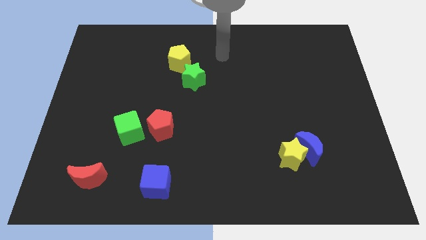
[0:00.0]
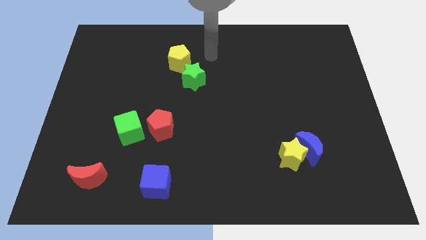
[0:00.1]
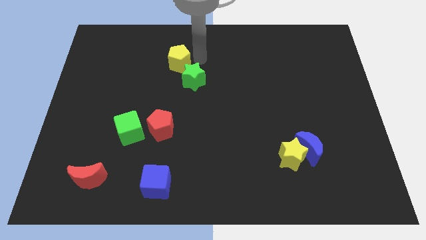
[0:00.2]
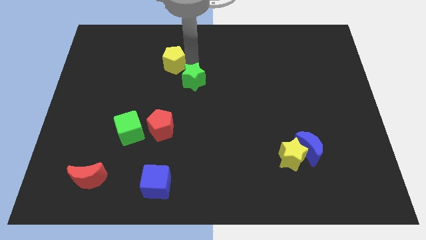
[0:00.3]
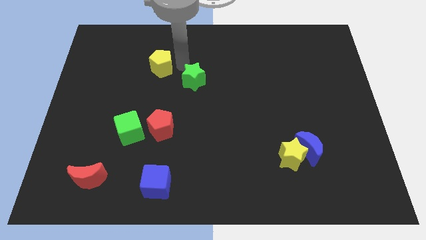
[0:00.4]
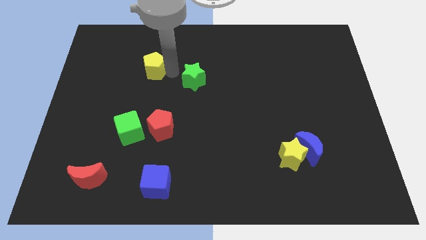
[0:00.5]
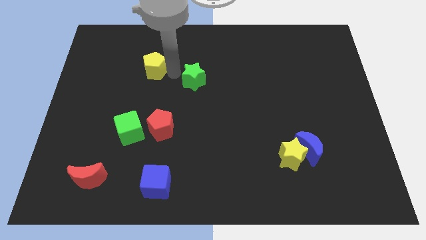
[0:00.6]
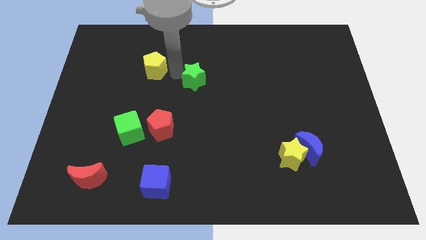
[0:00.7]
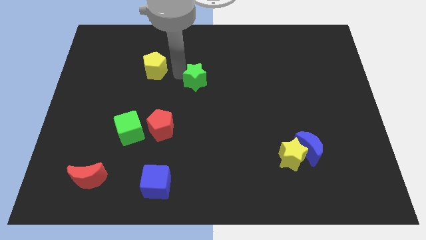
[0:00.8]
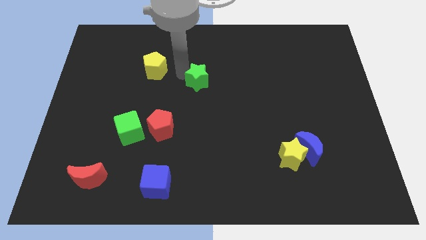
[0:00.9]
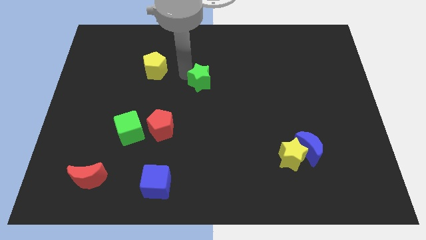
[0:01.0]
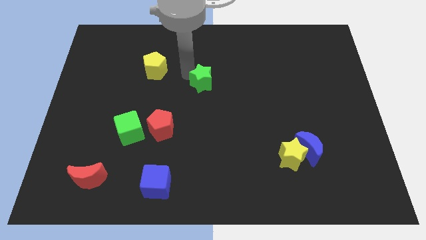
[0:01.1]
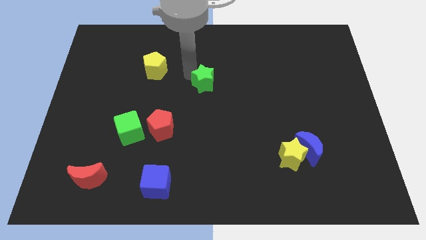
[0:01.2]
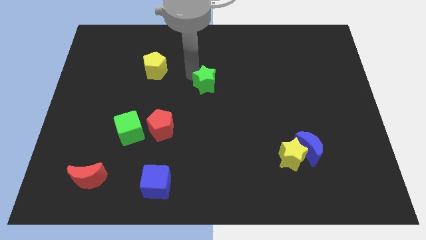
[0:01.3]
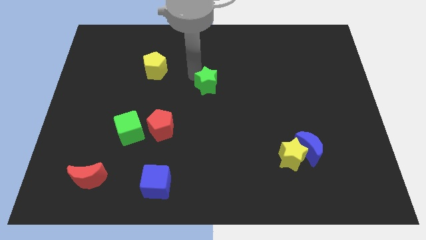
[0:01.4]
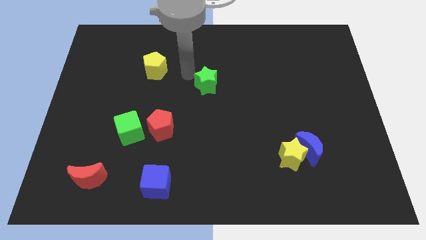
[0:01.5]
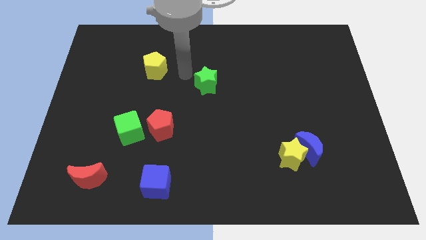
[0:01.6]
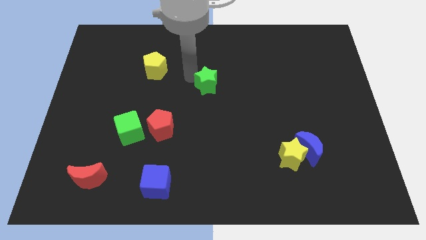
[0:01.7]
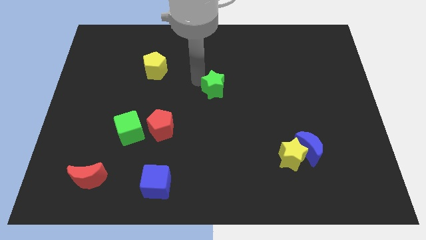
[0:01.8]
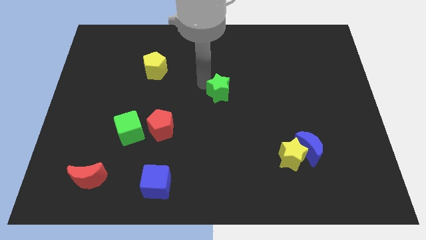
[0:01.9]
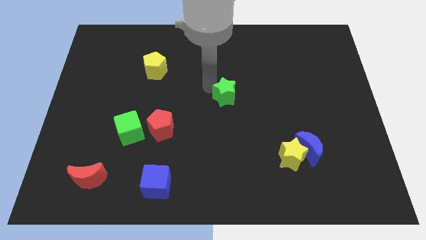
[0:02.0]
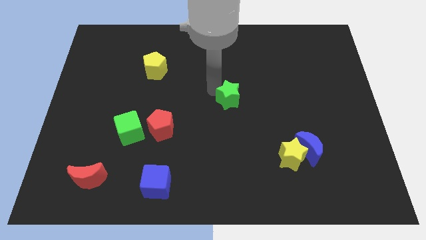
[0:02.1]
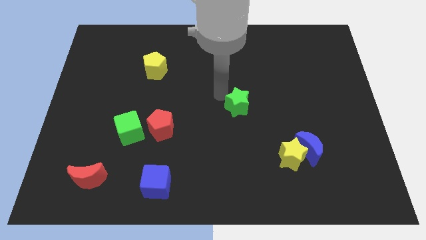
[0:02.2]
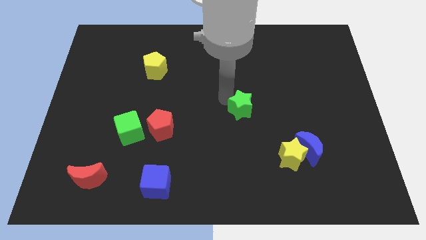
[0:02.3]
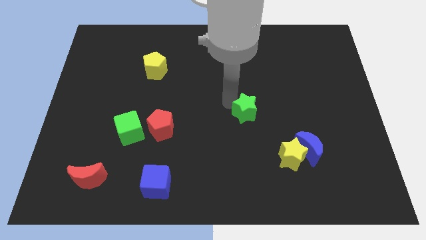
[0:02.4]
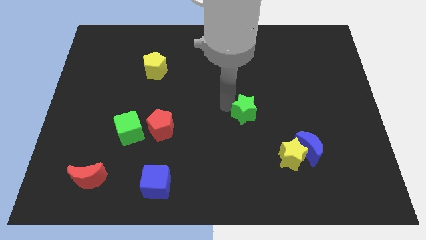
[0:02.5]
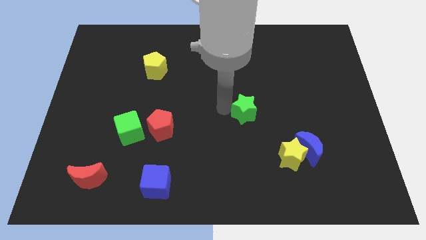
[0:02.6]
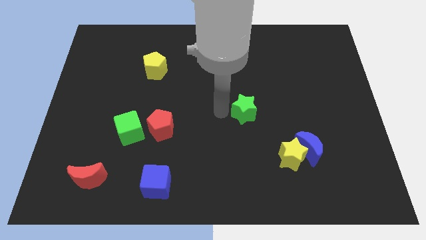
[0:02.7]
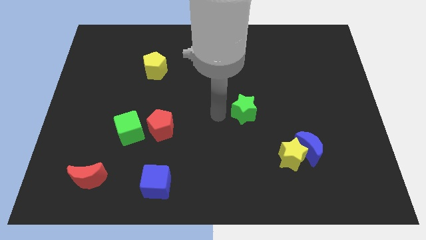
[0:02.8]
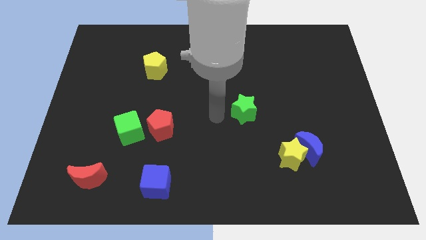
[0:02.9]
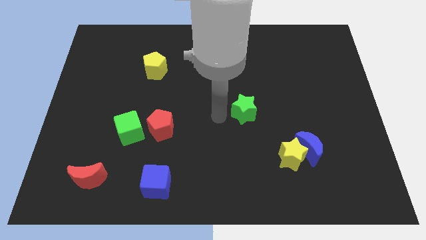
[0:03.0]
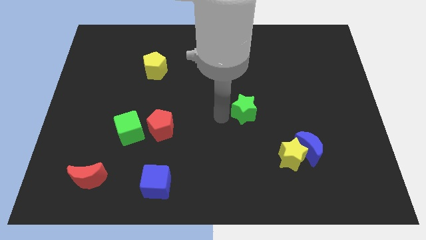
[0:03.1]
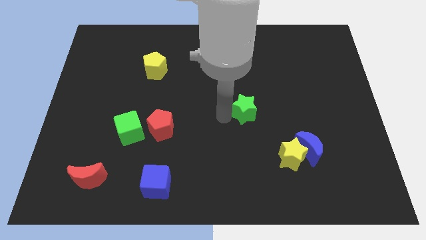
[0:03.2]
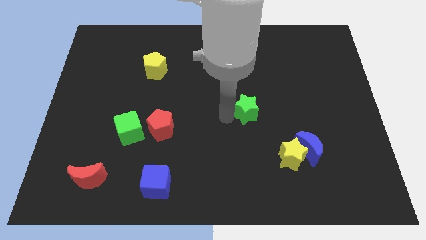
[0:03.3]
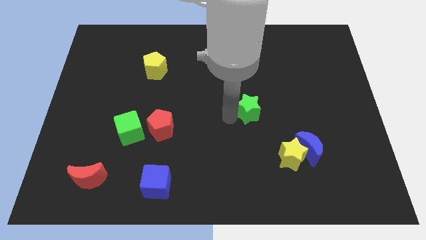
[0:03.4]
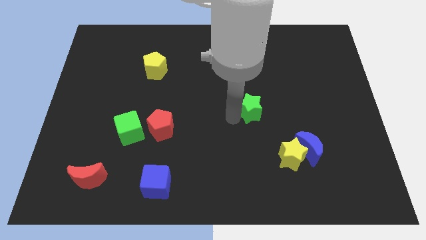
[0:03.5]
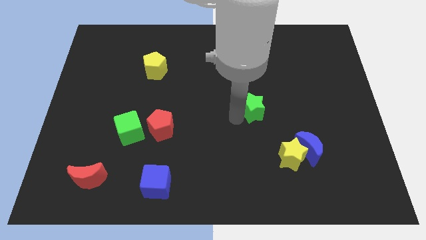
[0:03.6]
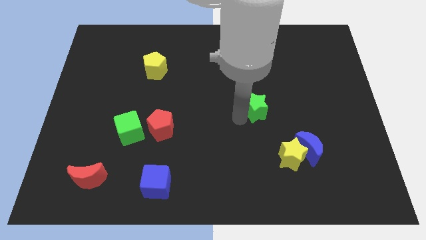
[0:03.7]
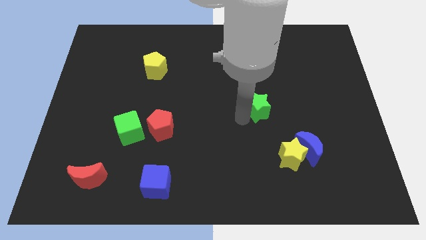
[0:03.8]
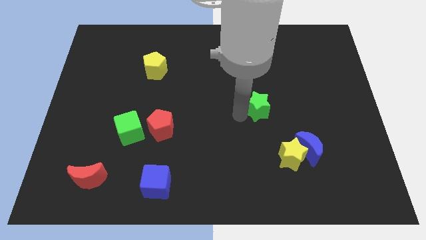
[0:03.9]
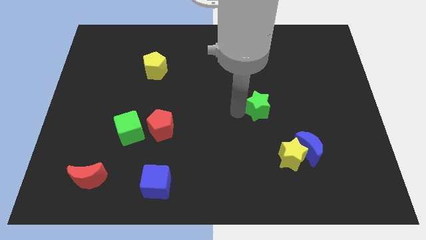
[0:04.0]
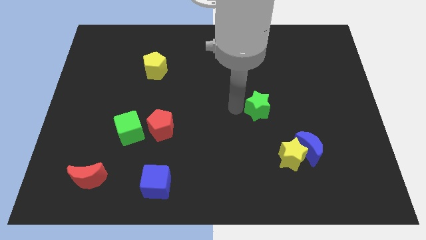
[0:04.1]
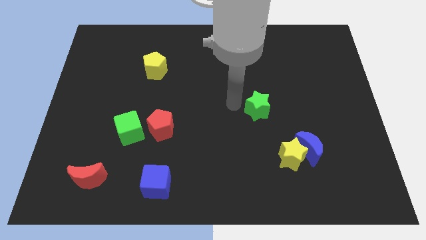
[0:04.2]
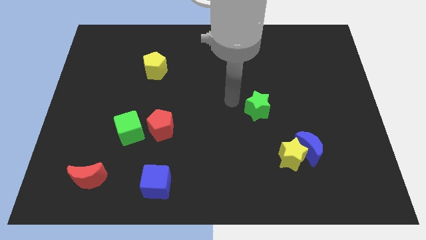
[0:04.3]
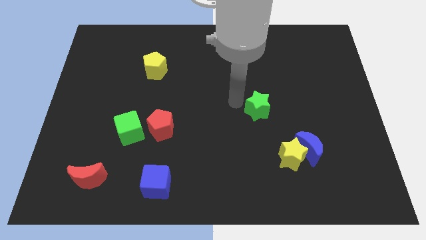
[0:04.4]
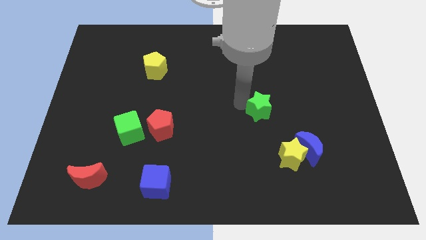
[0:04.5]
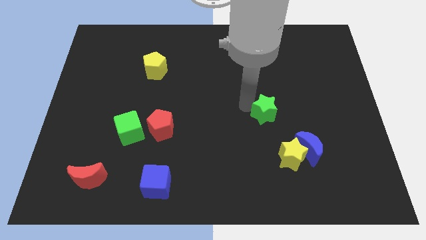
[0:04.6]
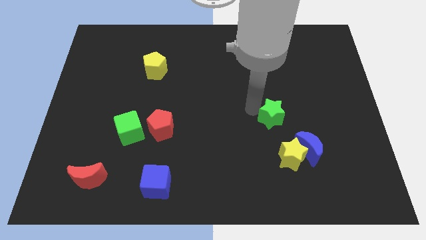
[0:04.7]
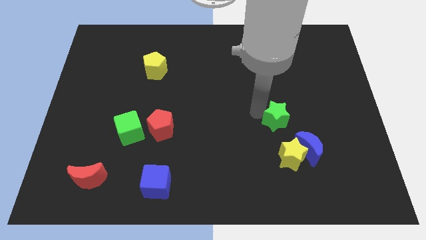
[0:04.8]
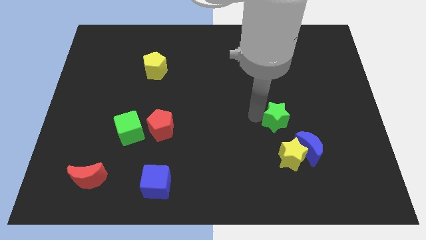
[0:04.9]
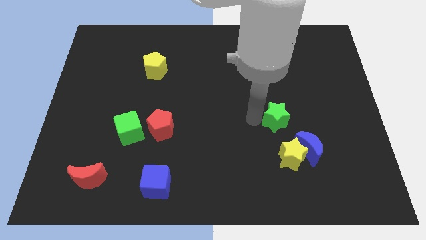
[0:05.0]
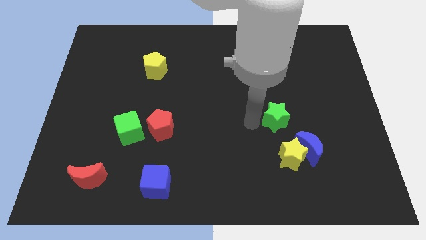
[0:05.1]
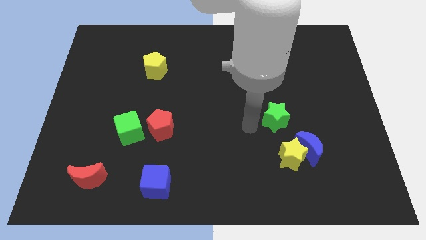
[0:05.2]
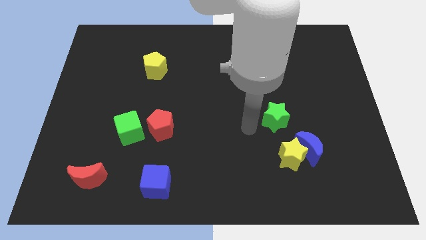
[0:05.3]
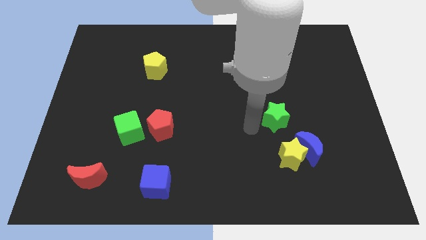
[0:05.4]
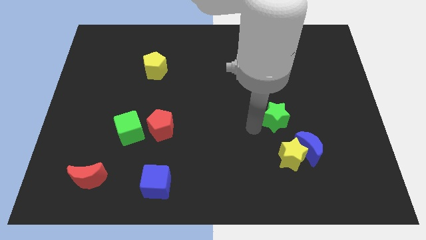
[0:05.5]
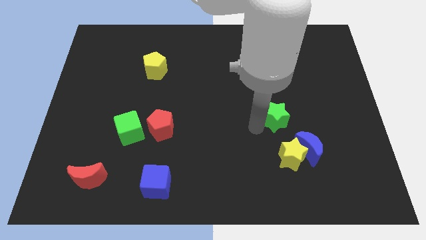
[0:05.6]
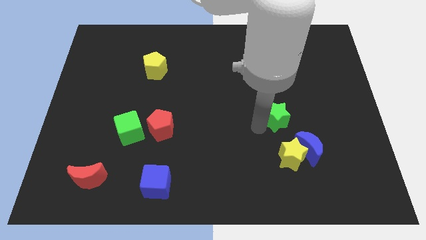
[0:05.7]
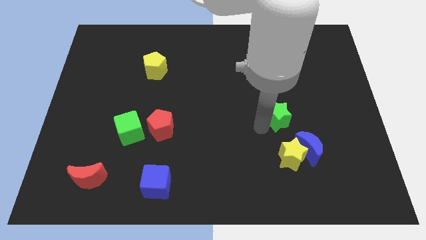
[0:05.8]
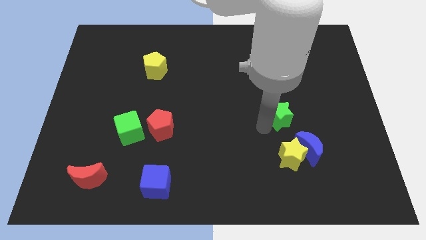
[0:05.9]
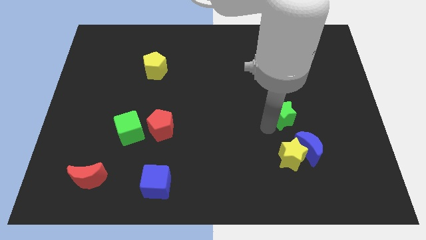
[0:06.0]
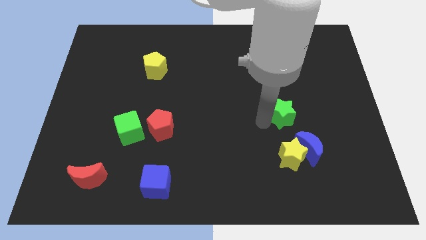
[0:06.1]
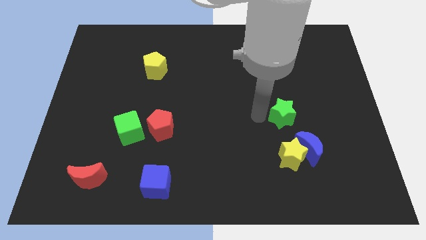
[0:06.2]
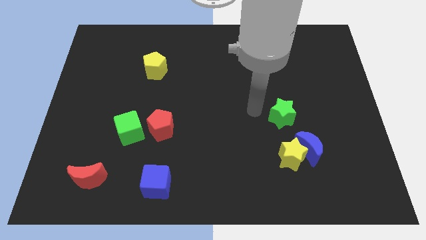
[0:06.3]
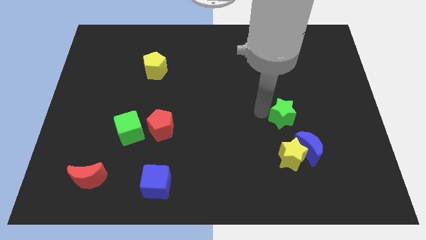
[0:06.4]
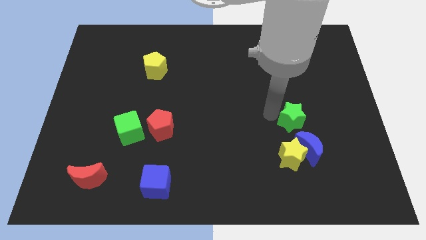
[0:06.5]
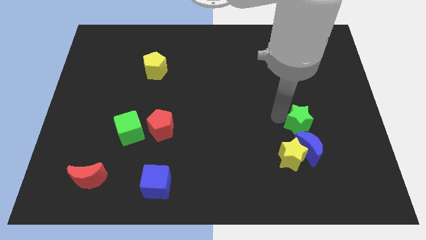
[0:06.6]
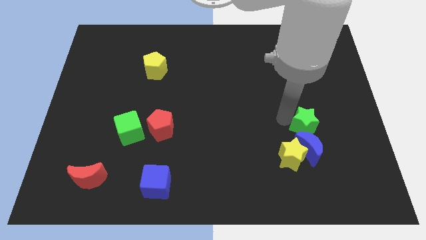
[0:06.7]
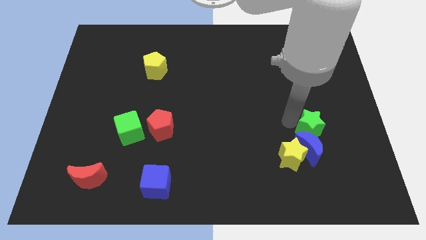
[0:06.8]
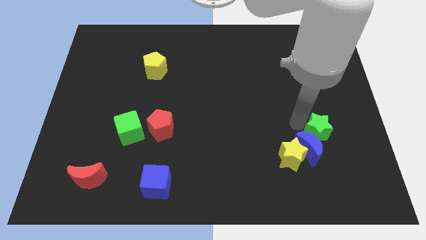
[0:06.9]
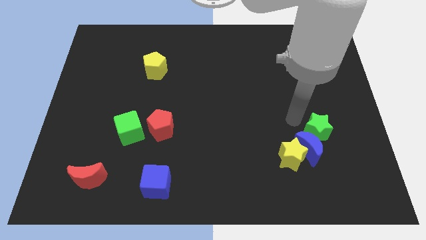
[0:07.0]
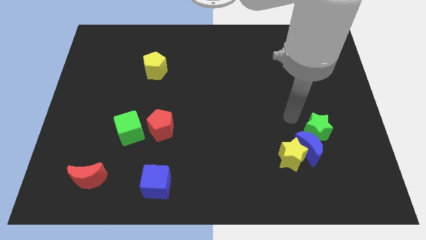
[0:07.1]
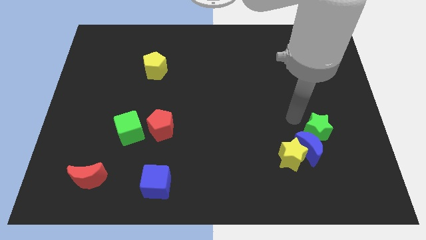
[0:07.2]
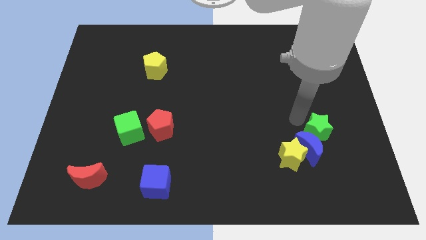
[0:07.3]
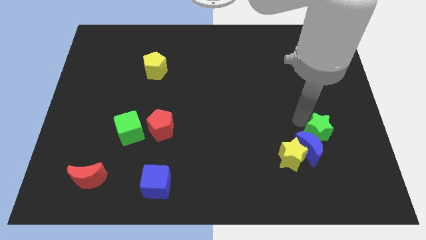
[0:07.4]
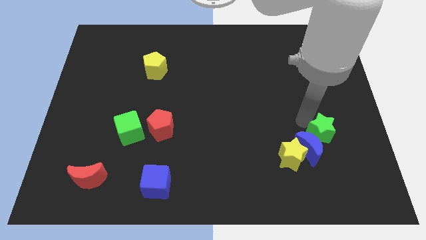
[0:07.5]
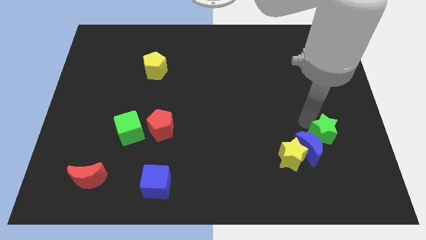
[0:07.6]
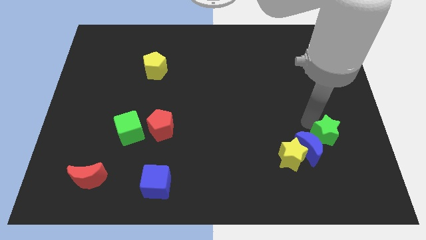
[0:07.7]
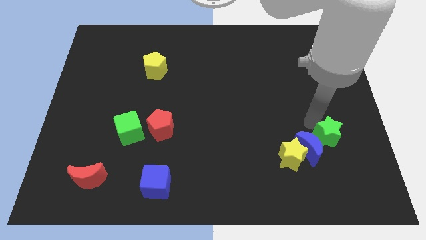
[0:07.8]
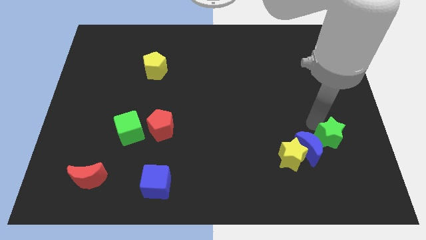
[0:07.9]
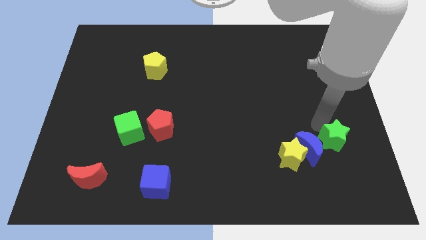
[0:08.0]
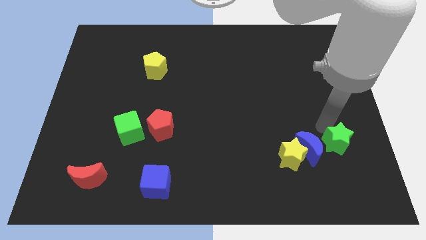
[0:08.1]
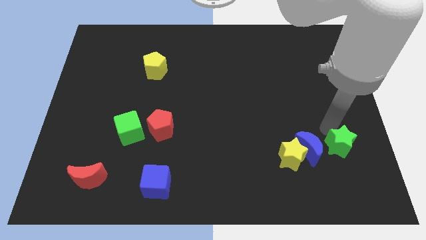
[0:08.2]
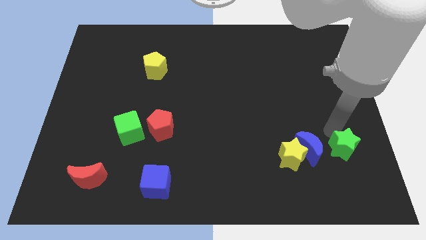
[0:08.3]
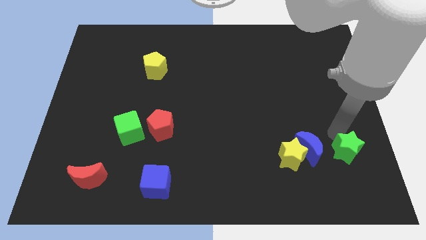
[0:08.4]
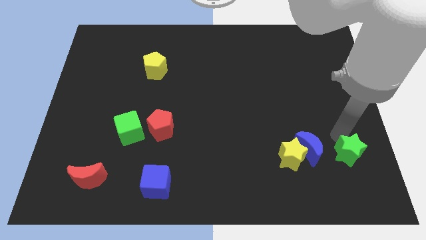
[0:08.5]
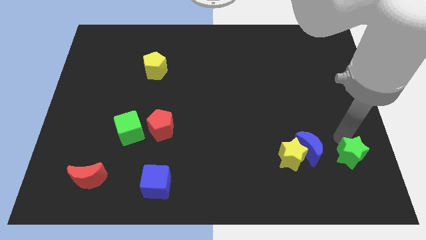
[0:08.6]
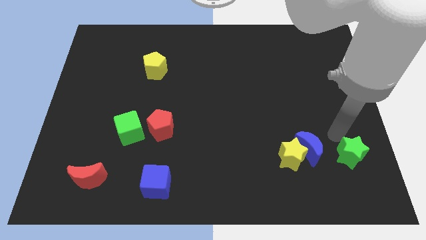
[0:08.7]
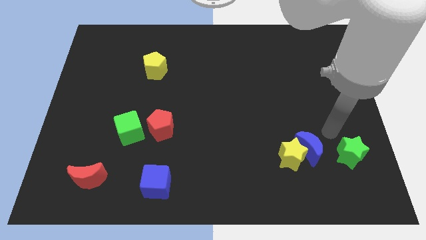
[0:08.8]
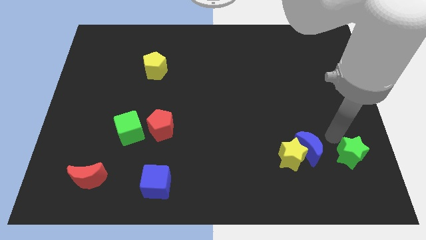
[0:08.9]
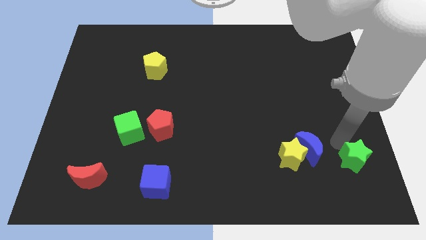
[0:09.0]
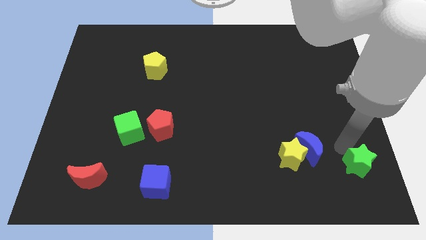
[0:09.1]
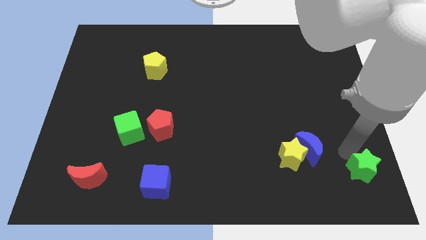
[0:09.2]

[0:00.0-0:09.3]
slide the green star to the bottom right corner
